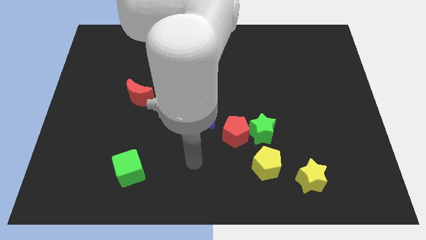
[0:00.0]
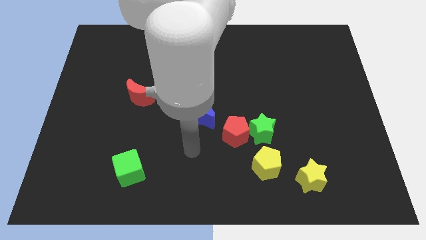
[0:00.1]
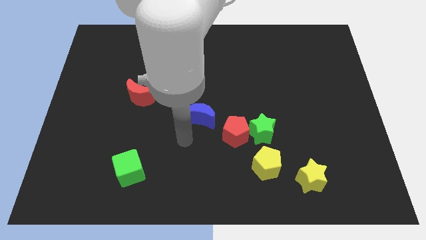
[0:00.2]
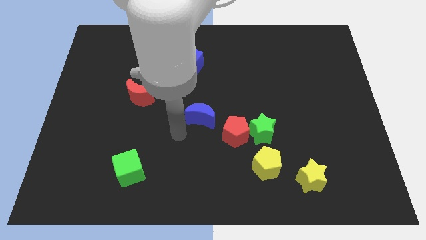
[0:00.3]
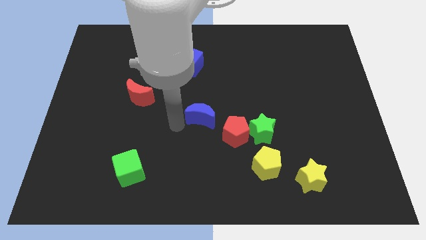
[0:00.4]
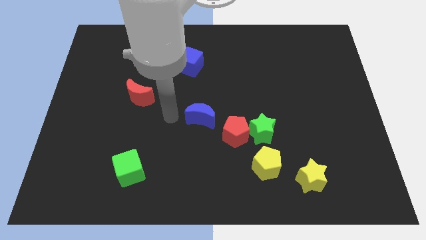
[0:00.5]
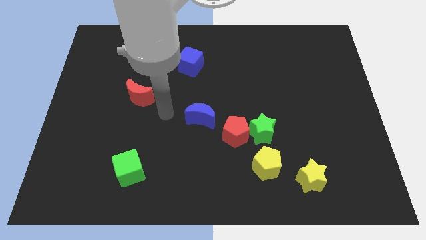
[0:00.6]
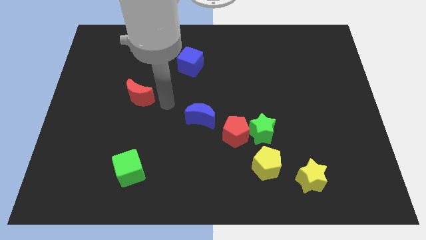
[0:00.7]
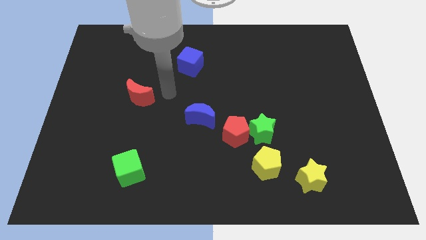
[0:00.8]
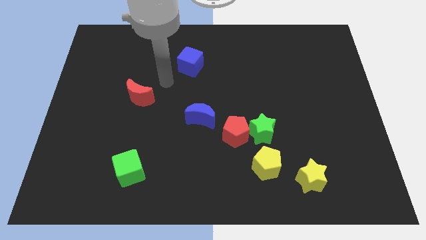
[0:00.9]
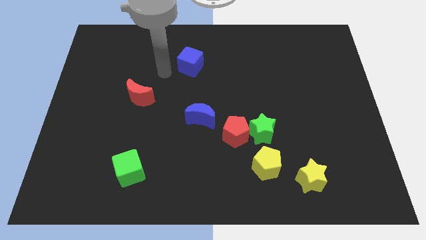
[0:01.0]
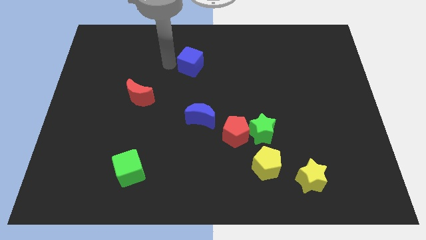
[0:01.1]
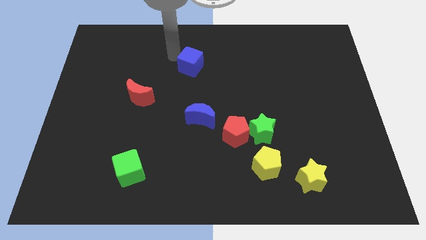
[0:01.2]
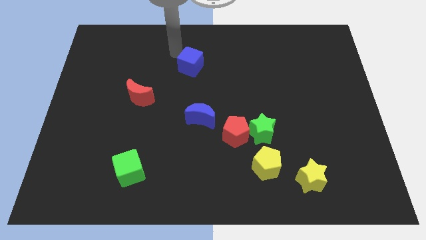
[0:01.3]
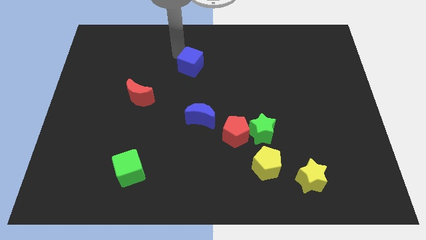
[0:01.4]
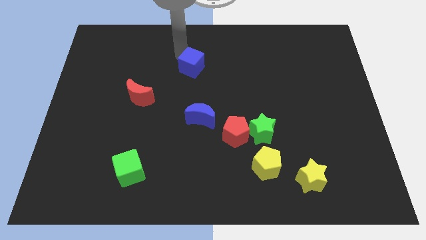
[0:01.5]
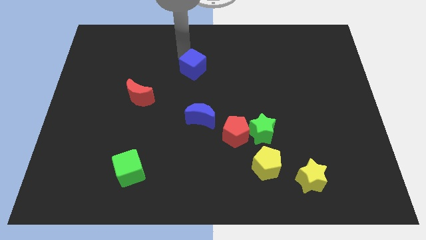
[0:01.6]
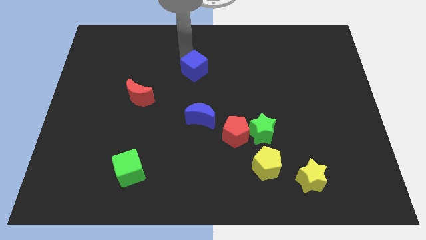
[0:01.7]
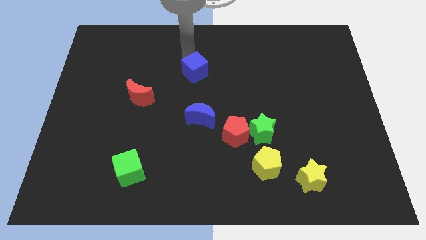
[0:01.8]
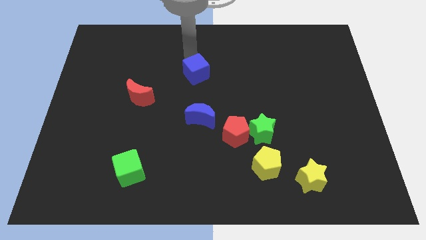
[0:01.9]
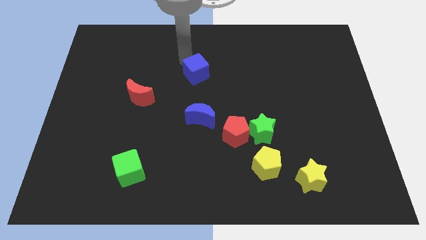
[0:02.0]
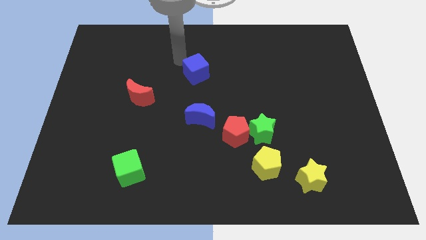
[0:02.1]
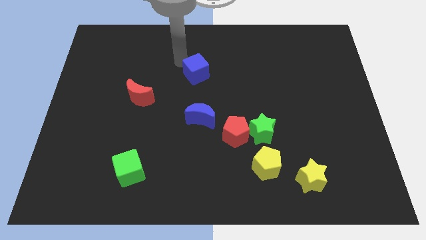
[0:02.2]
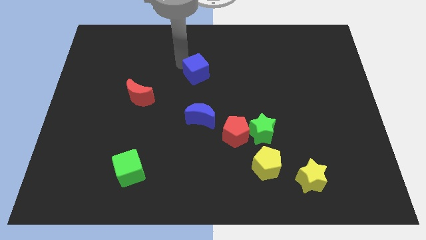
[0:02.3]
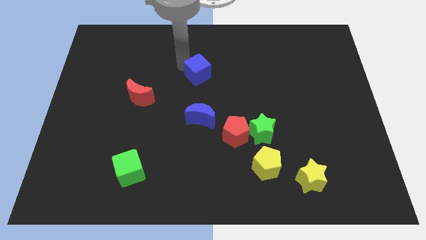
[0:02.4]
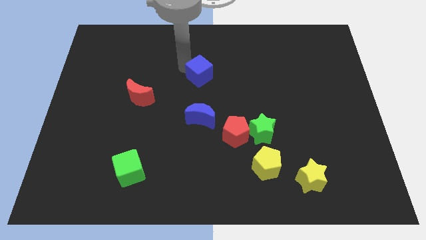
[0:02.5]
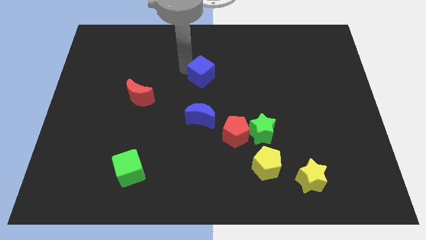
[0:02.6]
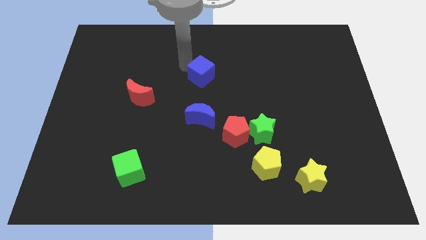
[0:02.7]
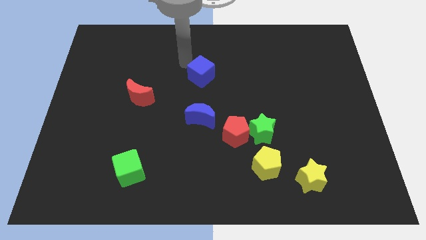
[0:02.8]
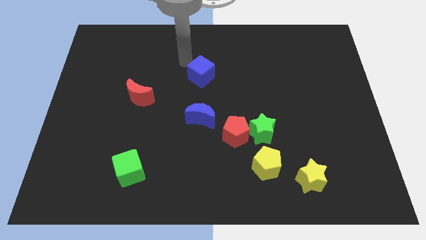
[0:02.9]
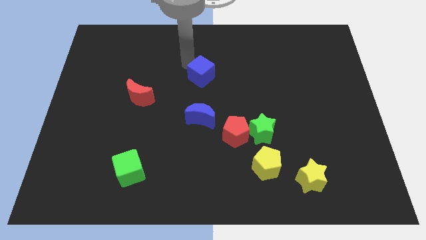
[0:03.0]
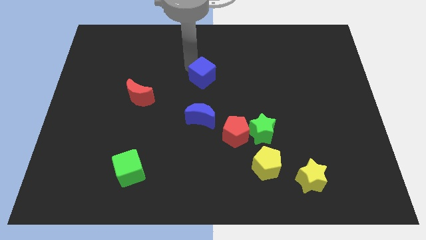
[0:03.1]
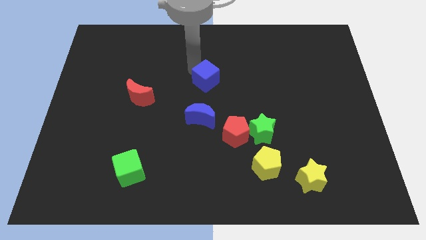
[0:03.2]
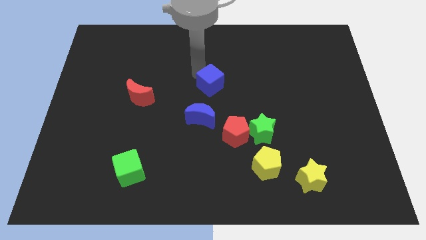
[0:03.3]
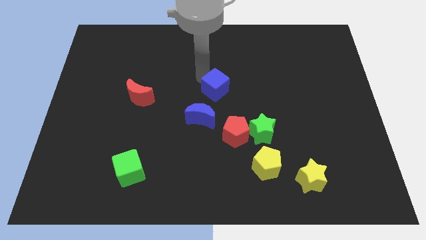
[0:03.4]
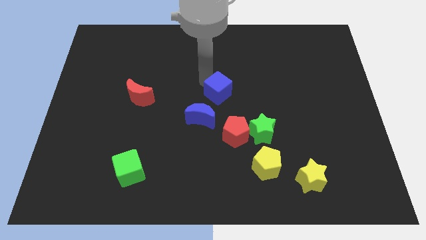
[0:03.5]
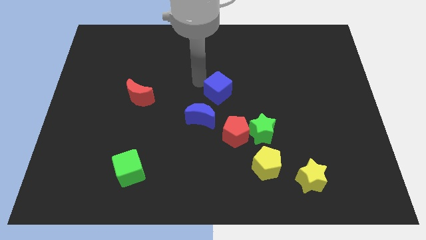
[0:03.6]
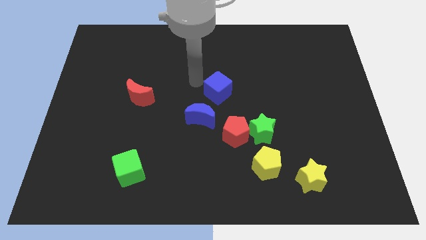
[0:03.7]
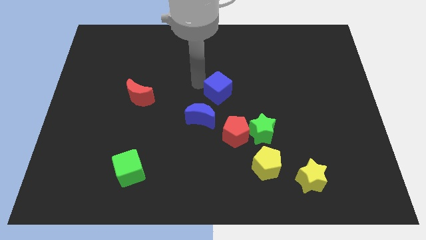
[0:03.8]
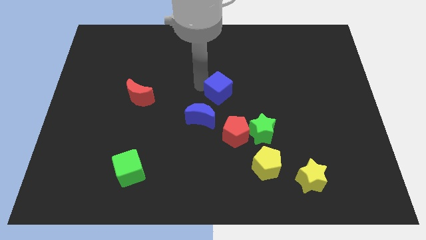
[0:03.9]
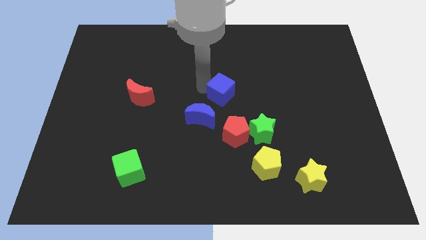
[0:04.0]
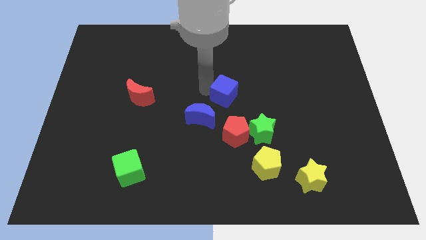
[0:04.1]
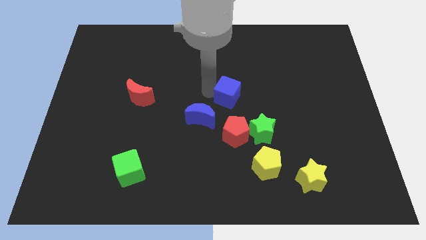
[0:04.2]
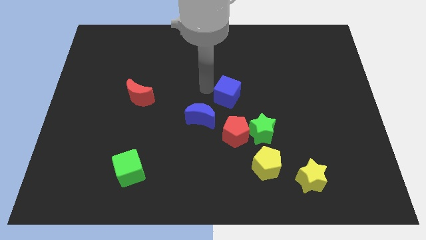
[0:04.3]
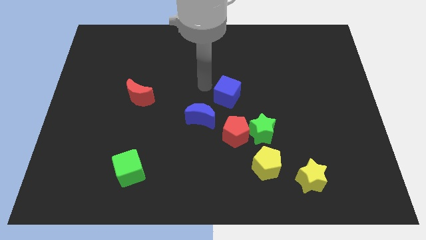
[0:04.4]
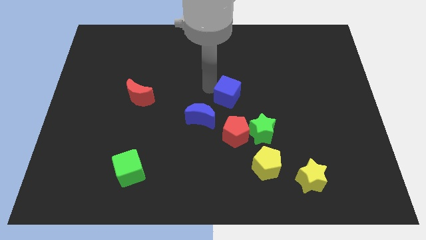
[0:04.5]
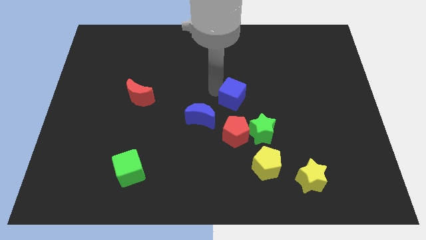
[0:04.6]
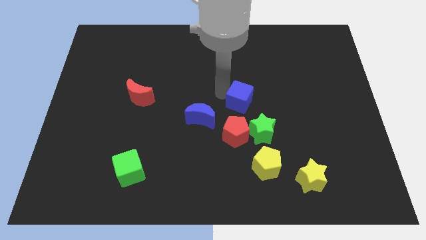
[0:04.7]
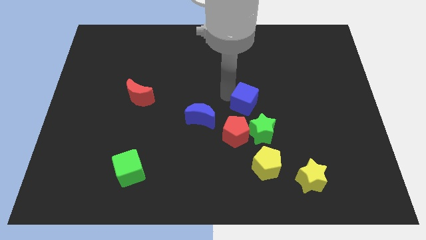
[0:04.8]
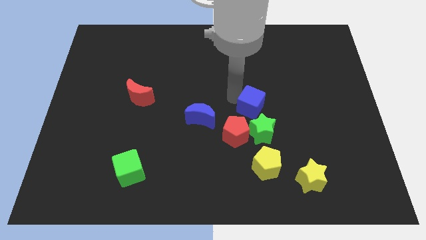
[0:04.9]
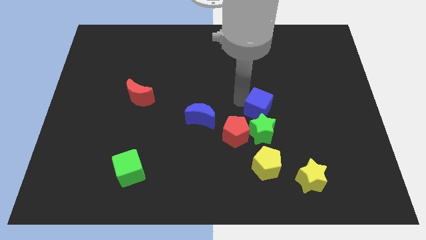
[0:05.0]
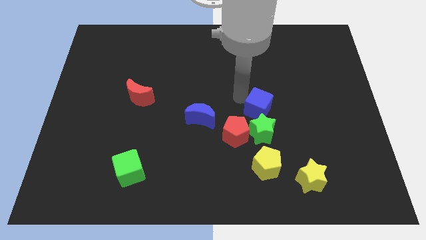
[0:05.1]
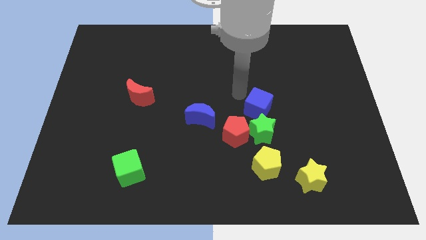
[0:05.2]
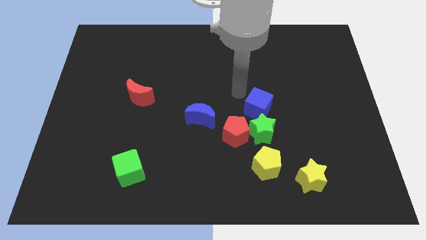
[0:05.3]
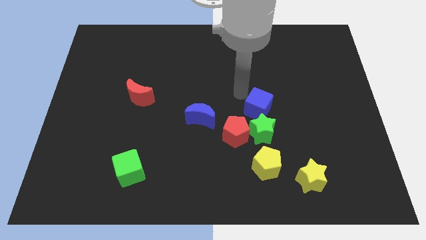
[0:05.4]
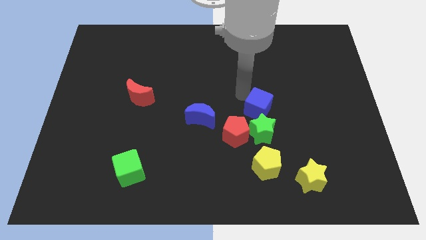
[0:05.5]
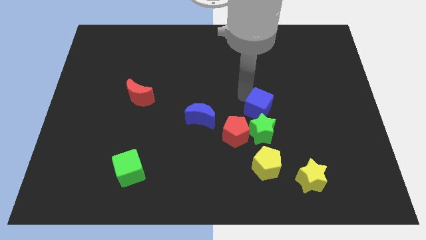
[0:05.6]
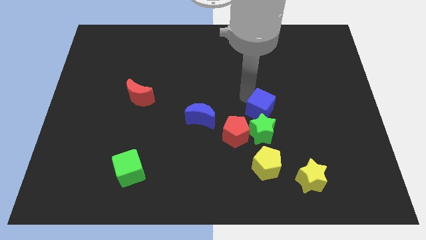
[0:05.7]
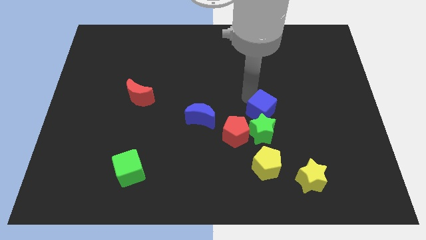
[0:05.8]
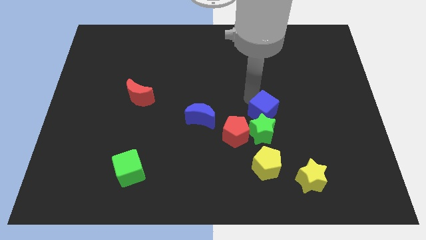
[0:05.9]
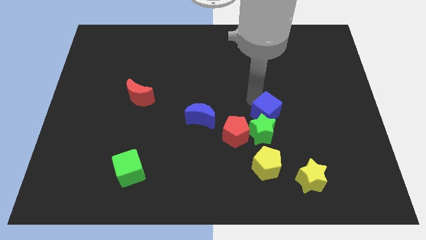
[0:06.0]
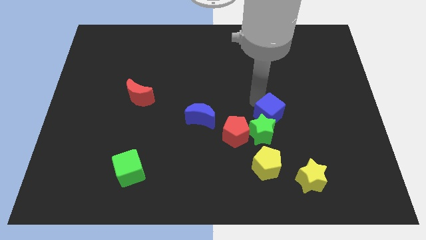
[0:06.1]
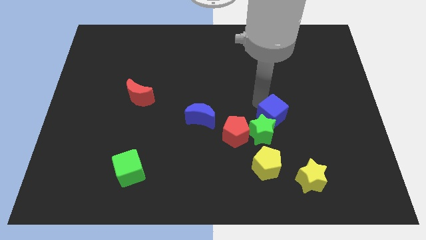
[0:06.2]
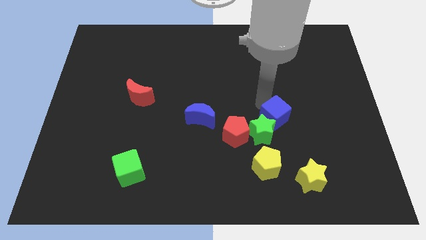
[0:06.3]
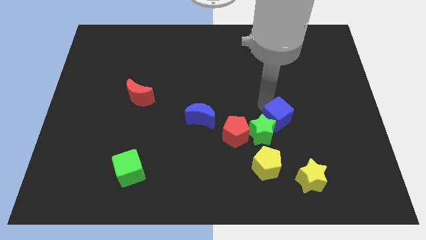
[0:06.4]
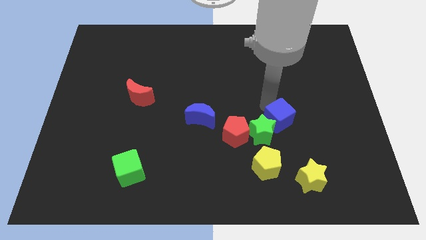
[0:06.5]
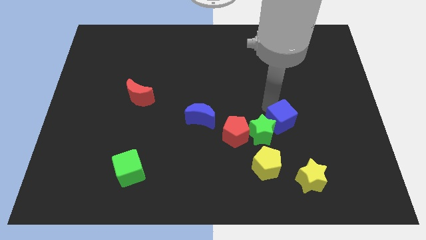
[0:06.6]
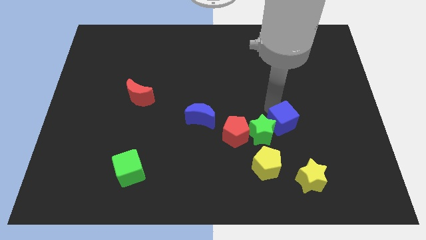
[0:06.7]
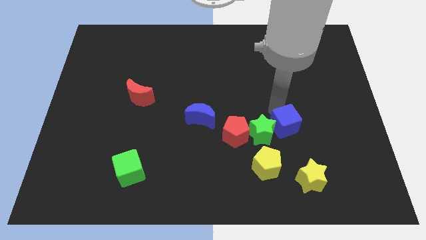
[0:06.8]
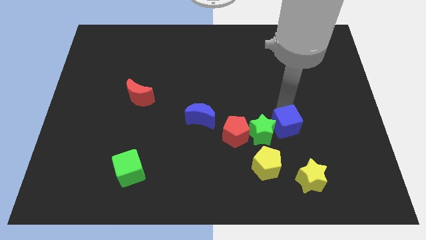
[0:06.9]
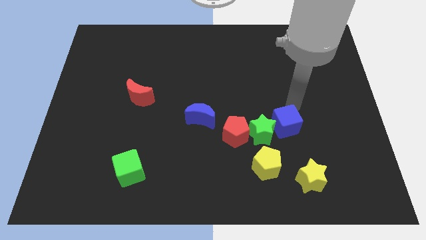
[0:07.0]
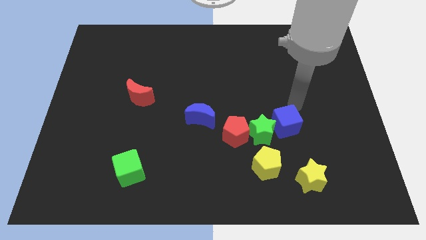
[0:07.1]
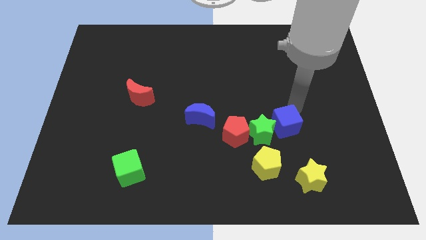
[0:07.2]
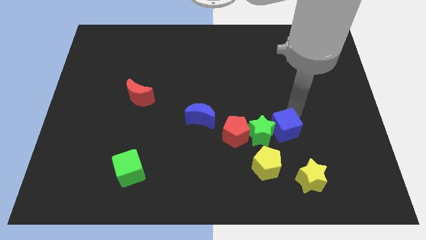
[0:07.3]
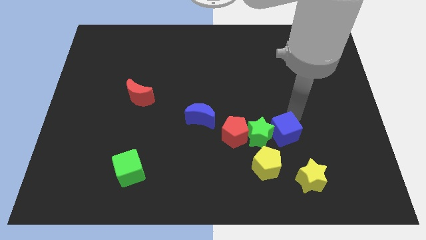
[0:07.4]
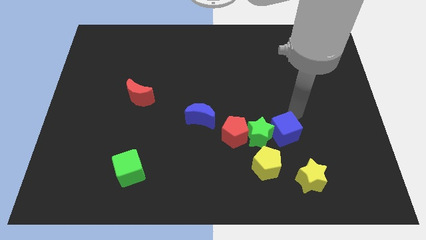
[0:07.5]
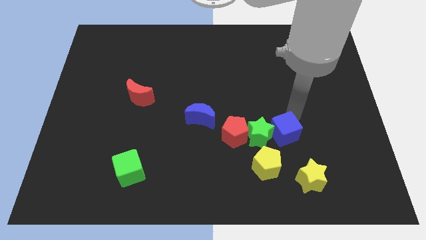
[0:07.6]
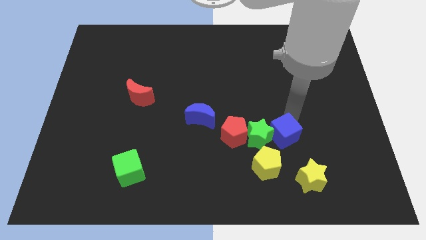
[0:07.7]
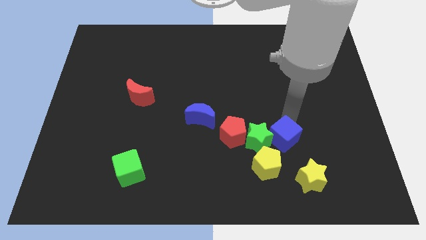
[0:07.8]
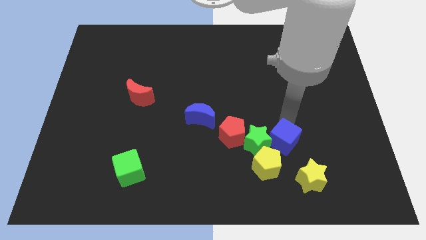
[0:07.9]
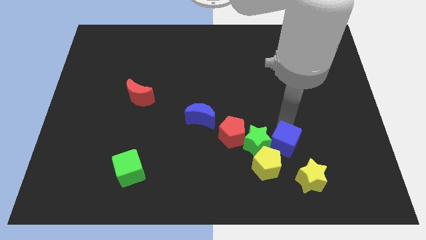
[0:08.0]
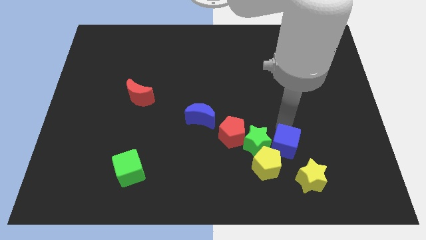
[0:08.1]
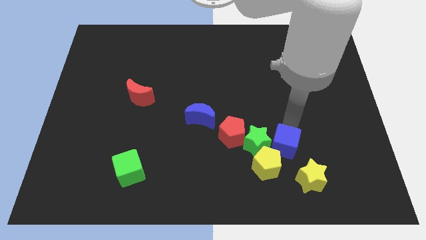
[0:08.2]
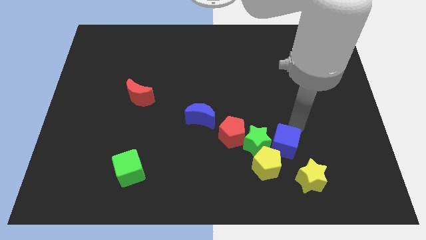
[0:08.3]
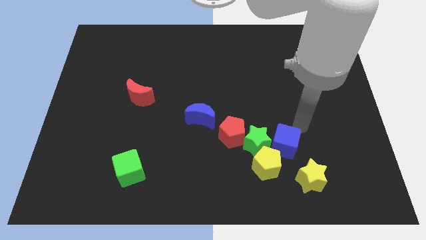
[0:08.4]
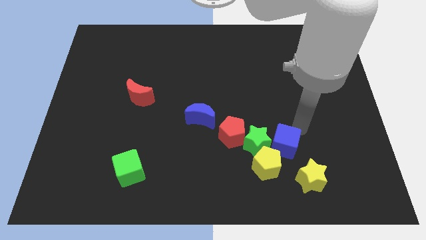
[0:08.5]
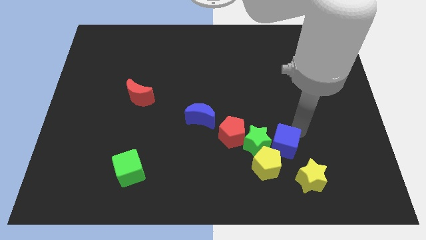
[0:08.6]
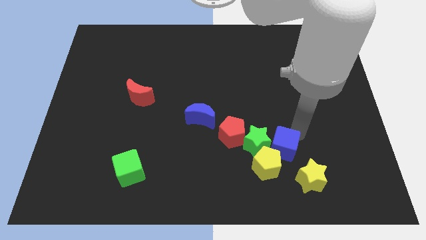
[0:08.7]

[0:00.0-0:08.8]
move the blue cube close to the yellow pentagon
